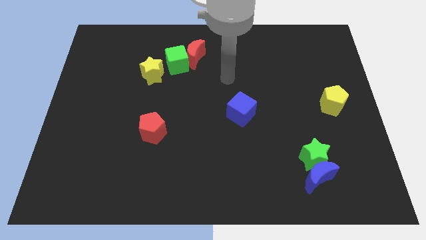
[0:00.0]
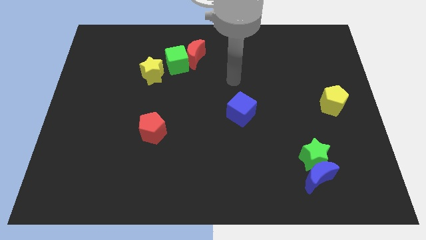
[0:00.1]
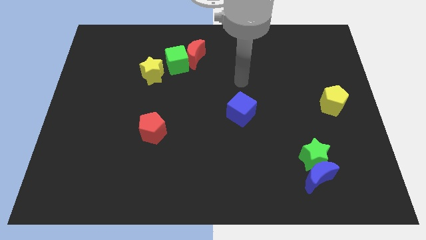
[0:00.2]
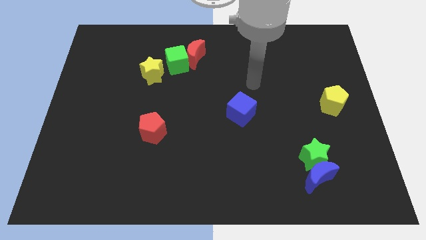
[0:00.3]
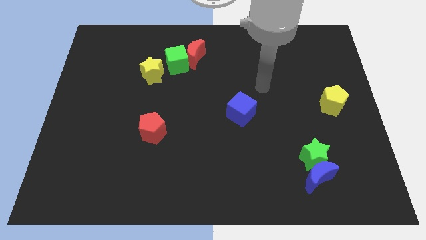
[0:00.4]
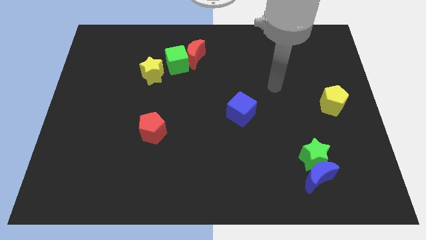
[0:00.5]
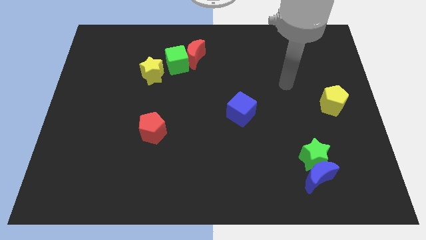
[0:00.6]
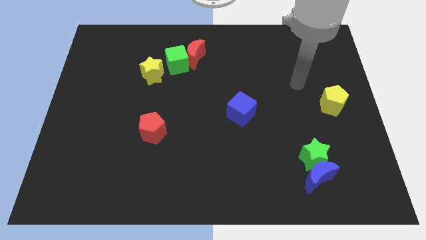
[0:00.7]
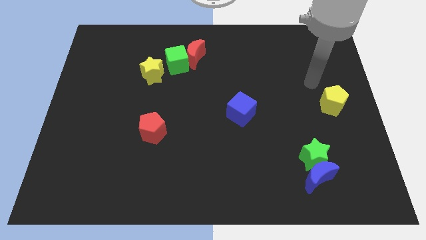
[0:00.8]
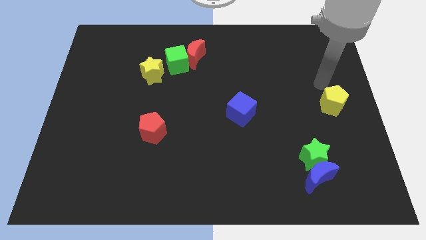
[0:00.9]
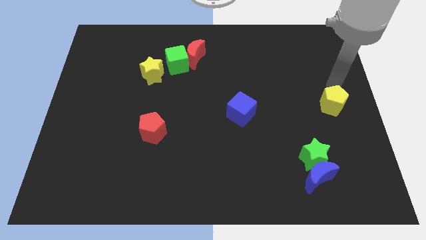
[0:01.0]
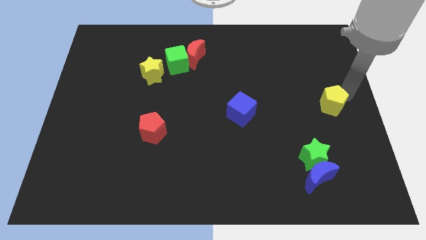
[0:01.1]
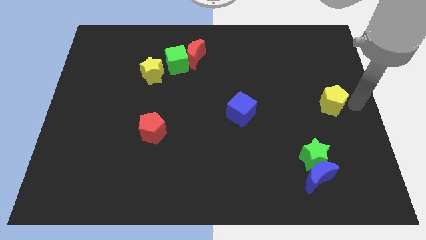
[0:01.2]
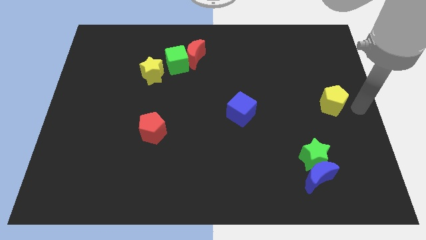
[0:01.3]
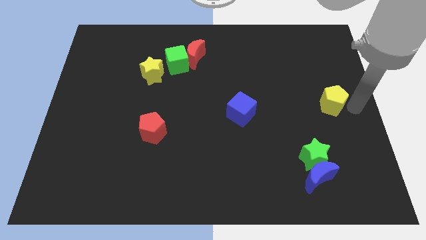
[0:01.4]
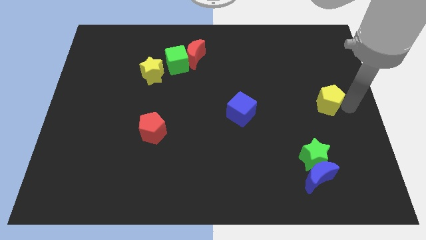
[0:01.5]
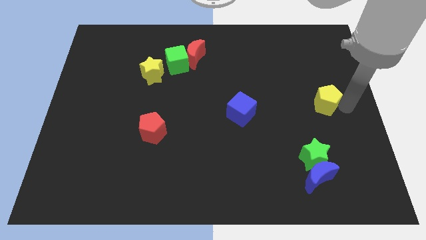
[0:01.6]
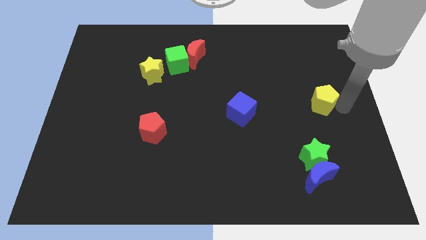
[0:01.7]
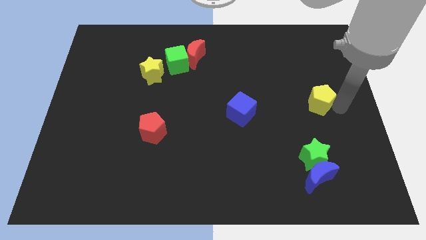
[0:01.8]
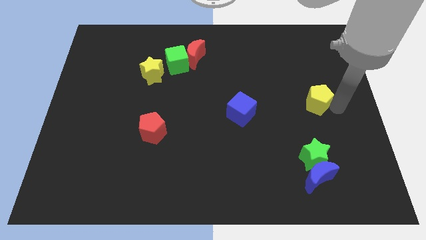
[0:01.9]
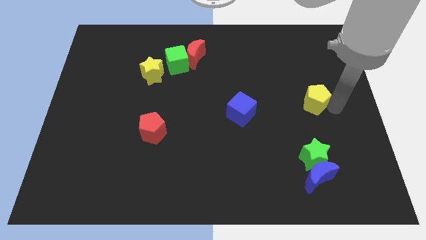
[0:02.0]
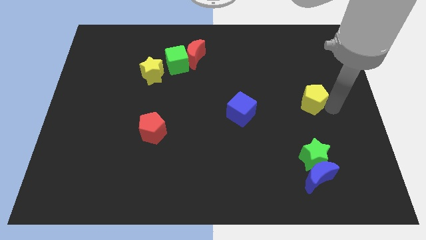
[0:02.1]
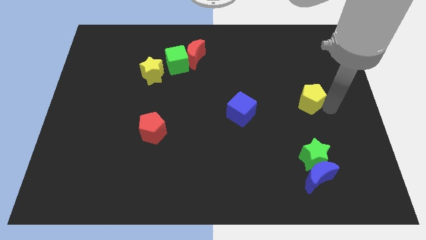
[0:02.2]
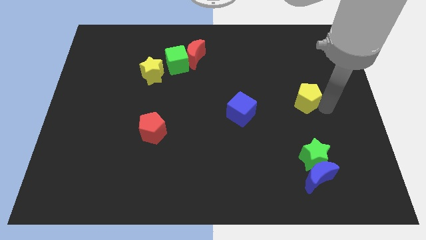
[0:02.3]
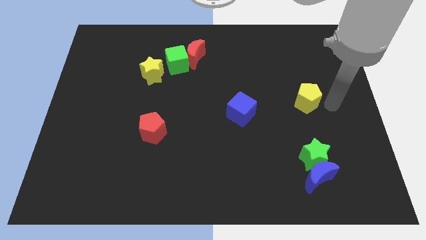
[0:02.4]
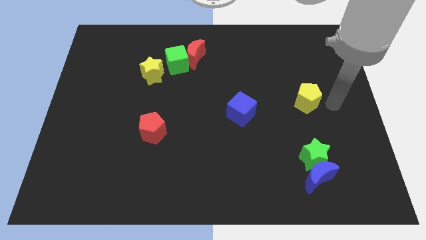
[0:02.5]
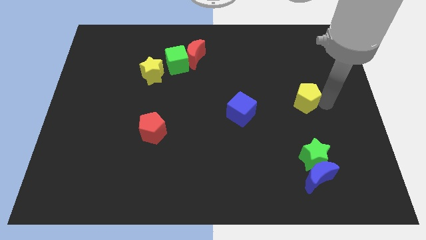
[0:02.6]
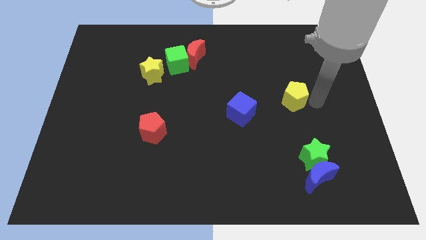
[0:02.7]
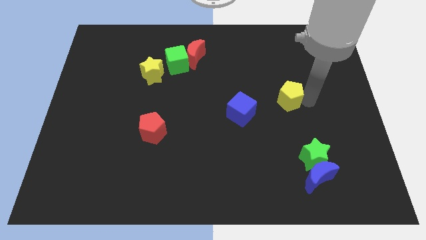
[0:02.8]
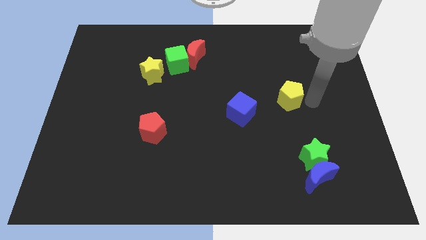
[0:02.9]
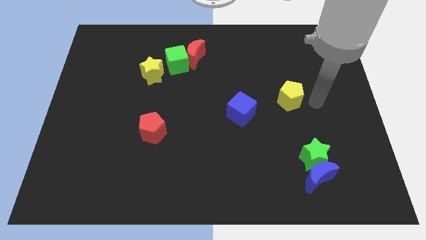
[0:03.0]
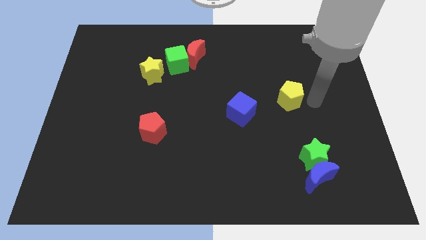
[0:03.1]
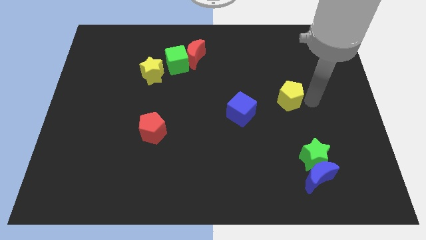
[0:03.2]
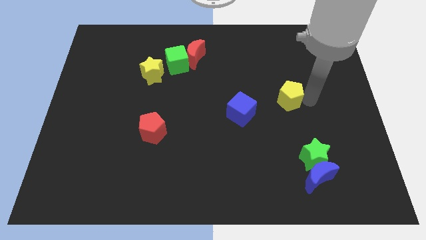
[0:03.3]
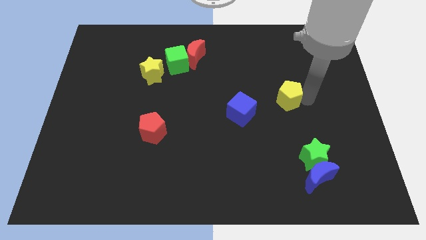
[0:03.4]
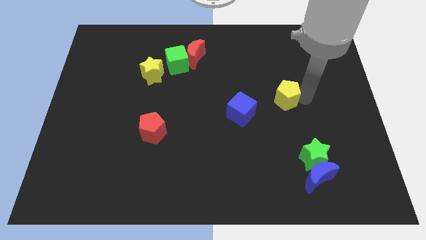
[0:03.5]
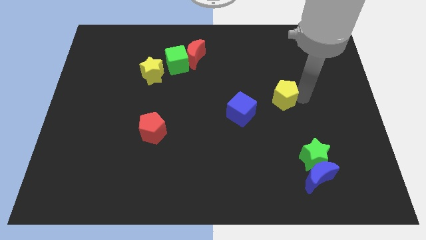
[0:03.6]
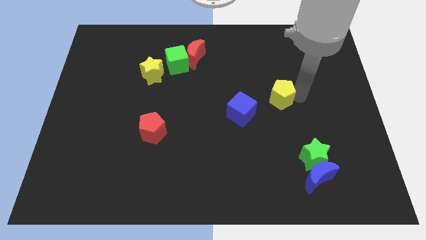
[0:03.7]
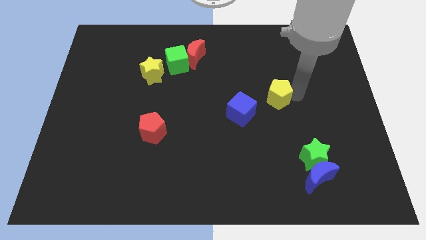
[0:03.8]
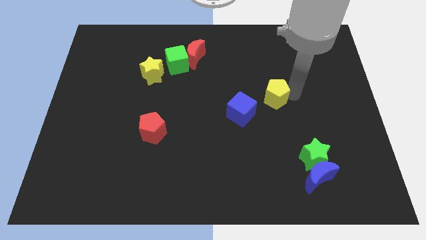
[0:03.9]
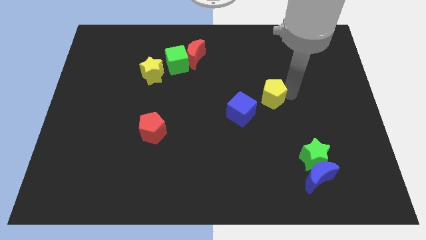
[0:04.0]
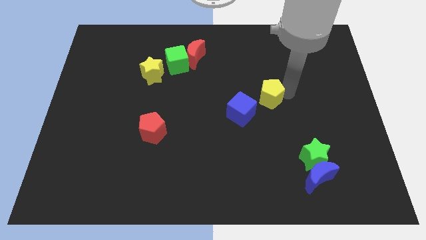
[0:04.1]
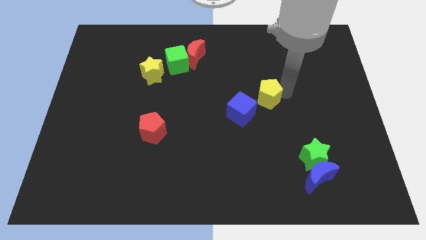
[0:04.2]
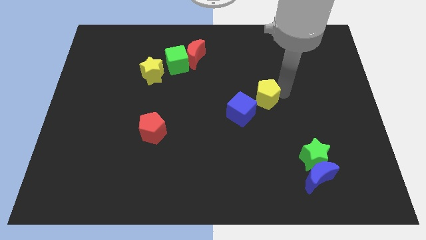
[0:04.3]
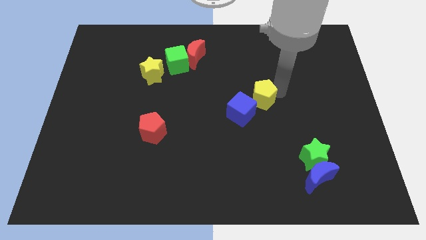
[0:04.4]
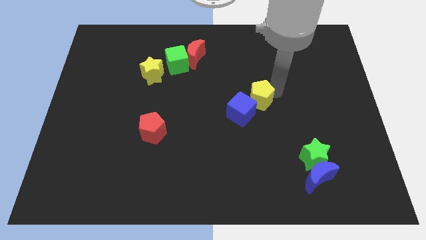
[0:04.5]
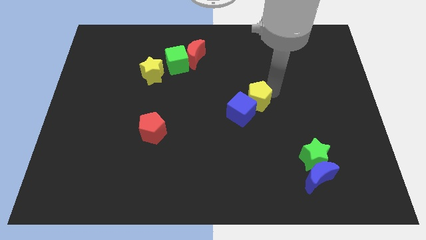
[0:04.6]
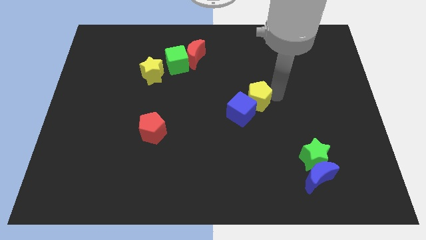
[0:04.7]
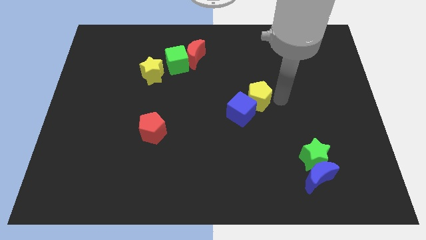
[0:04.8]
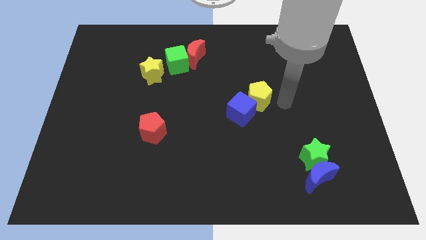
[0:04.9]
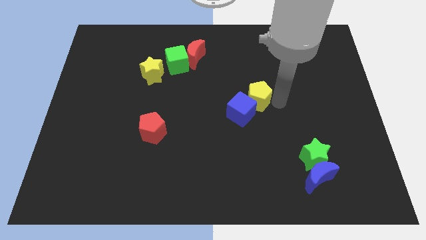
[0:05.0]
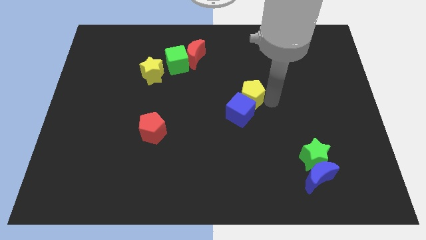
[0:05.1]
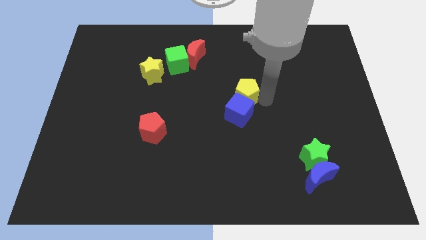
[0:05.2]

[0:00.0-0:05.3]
slide the yellow pentagon left

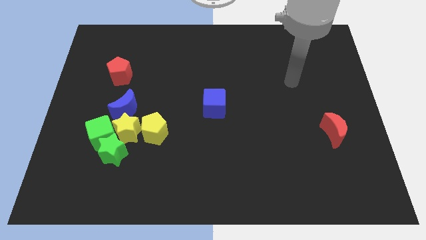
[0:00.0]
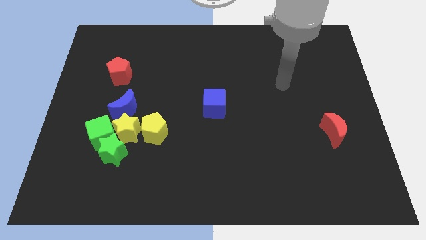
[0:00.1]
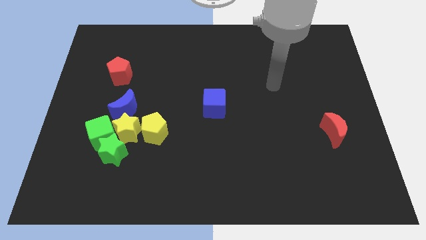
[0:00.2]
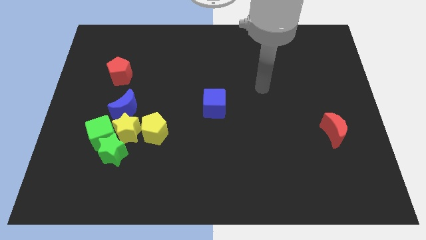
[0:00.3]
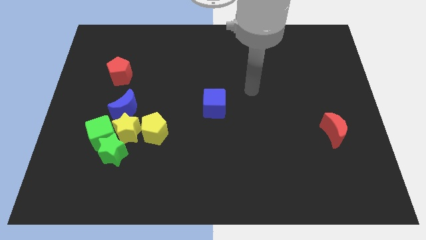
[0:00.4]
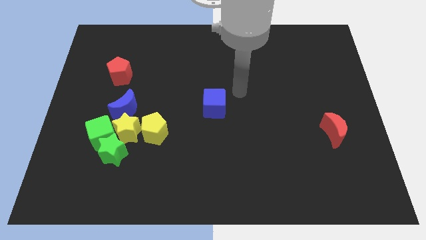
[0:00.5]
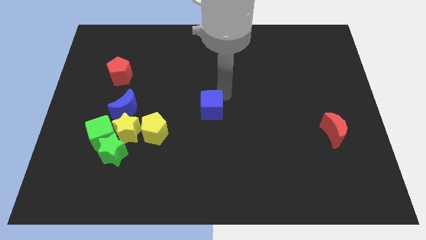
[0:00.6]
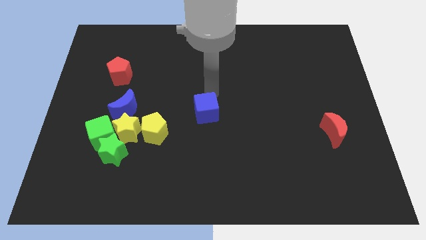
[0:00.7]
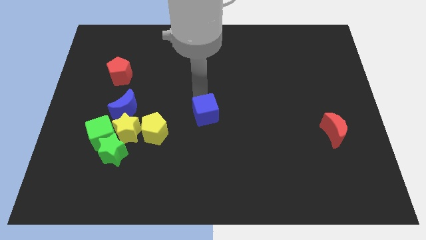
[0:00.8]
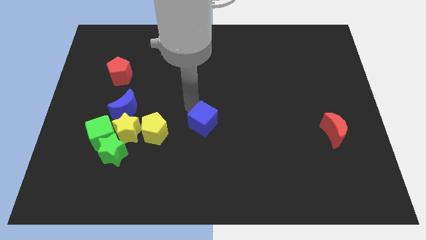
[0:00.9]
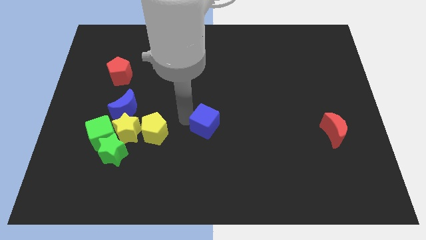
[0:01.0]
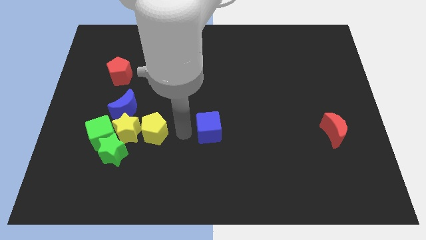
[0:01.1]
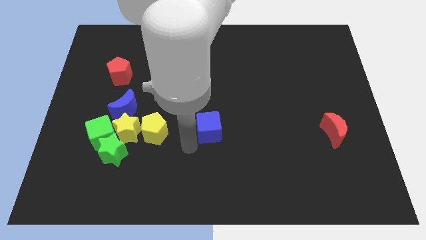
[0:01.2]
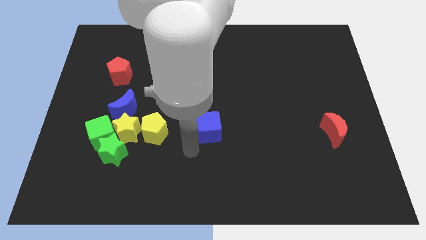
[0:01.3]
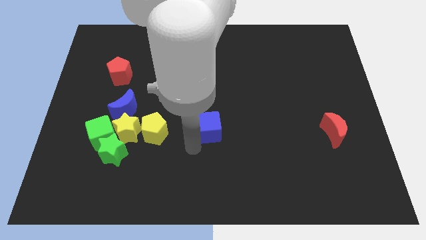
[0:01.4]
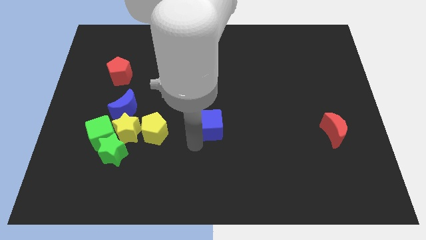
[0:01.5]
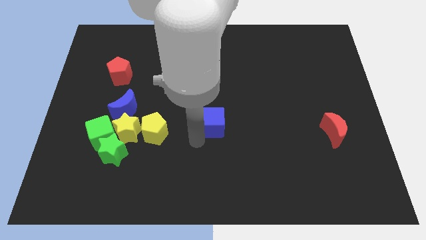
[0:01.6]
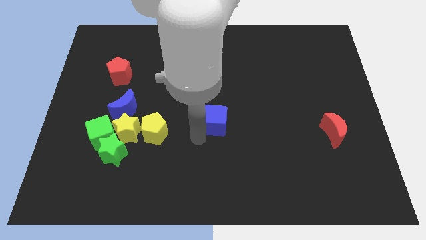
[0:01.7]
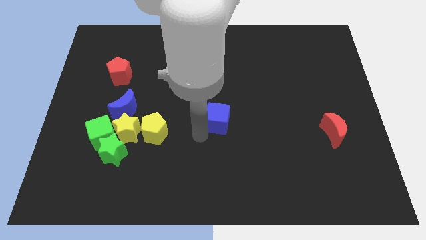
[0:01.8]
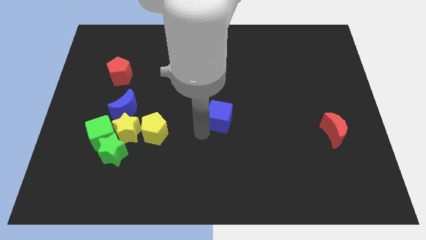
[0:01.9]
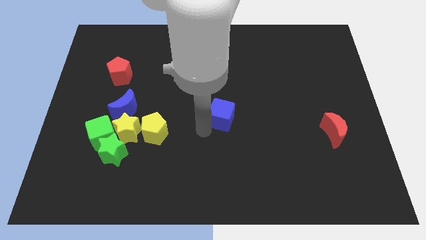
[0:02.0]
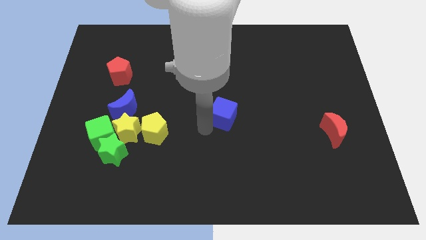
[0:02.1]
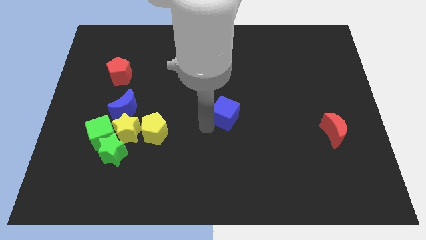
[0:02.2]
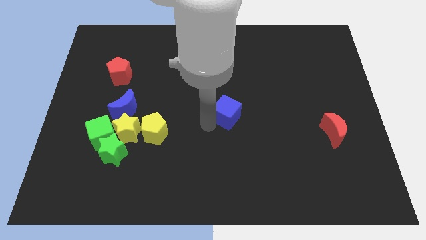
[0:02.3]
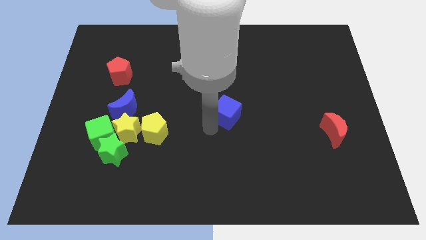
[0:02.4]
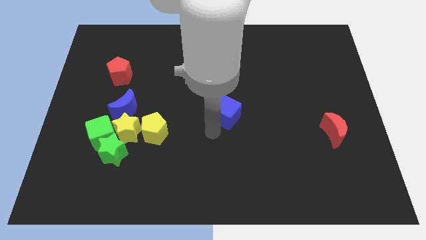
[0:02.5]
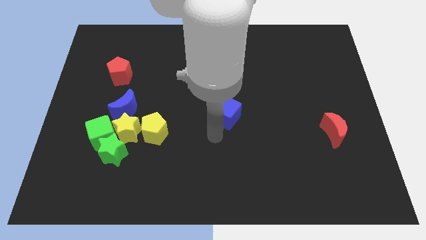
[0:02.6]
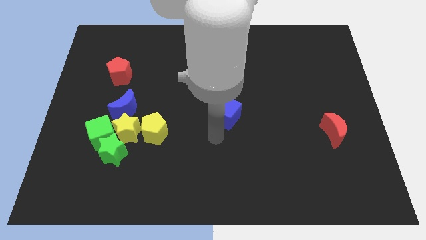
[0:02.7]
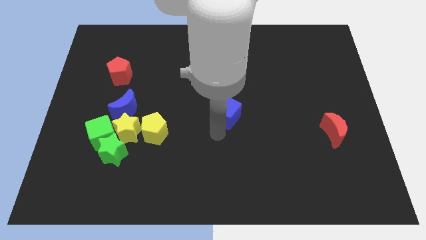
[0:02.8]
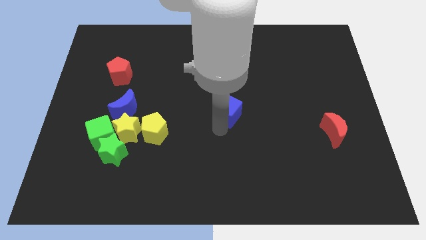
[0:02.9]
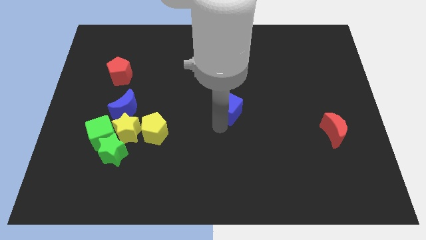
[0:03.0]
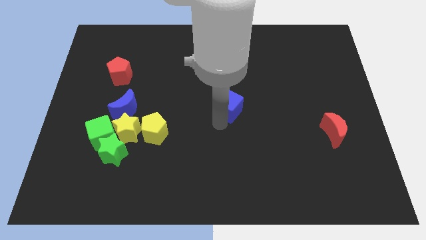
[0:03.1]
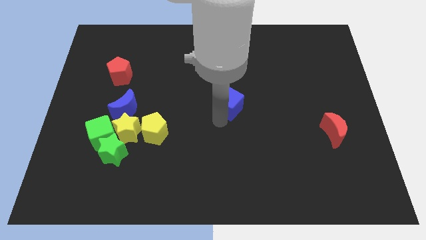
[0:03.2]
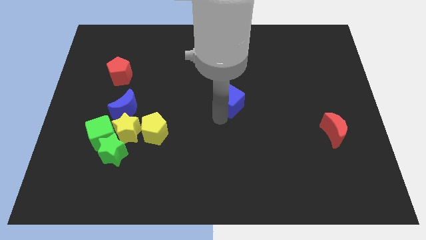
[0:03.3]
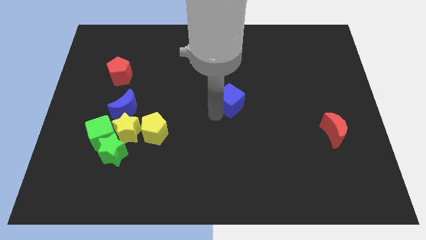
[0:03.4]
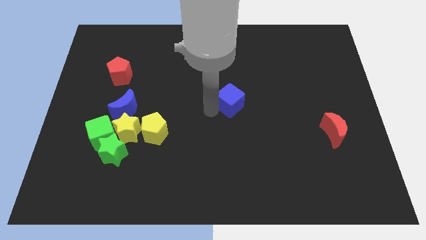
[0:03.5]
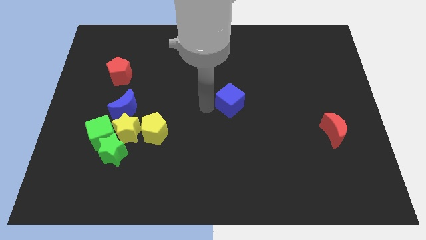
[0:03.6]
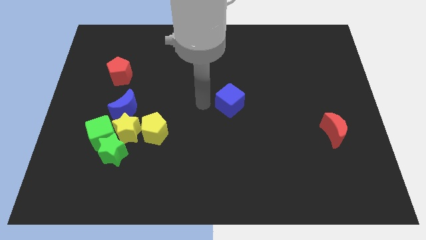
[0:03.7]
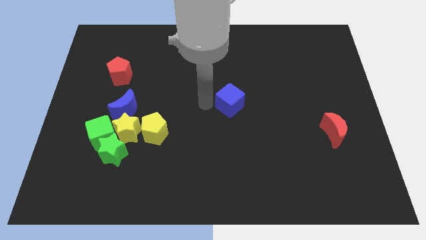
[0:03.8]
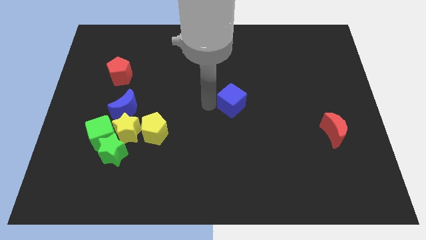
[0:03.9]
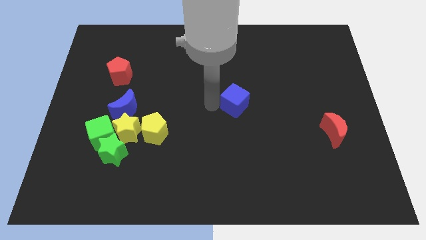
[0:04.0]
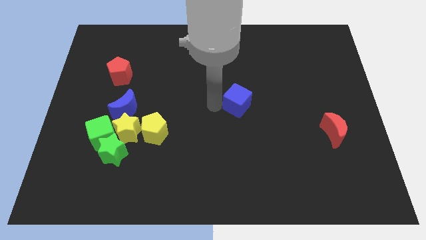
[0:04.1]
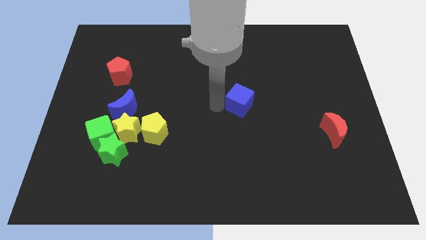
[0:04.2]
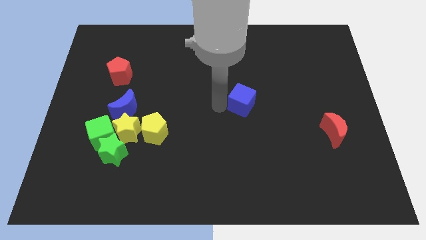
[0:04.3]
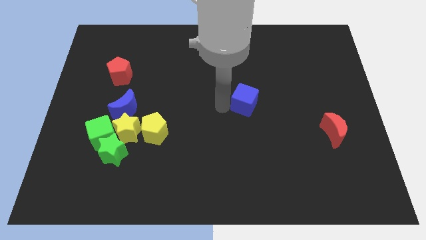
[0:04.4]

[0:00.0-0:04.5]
push the blue cube right a bit
